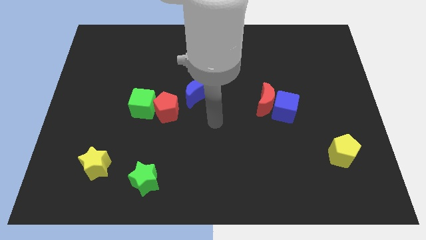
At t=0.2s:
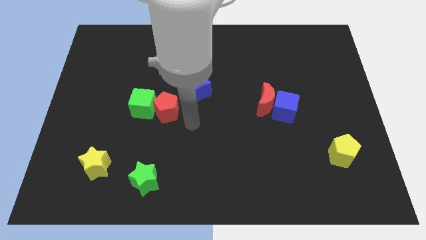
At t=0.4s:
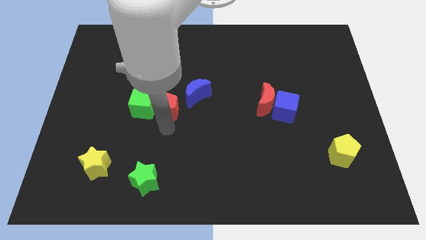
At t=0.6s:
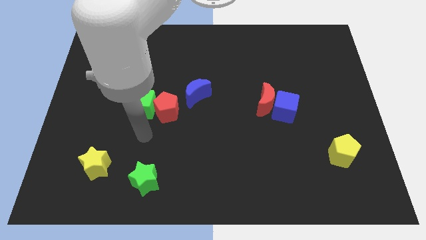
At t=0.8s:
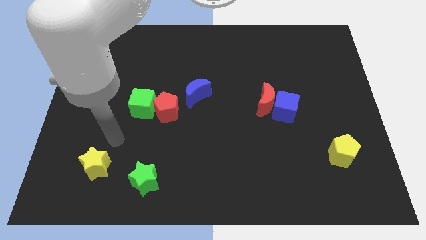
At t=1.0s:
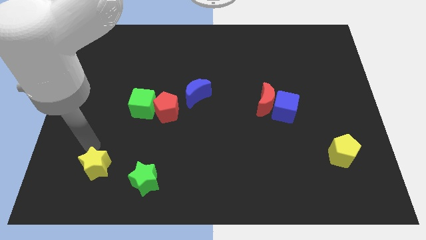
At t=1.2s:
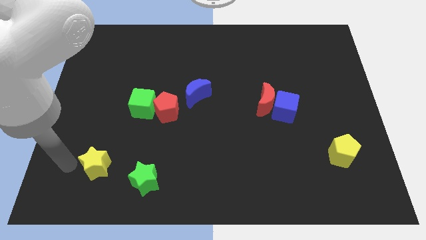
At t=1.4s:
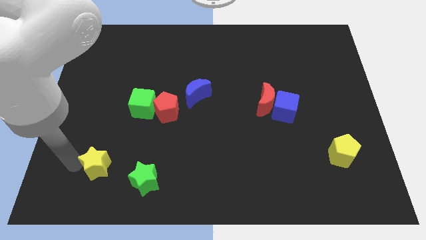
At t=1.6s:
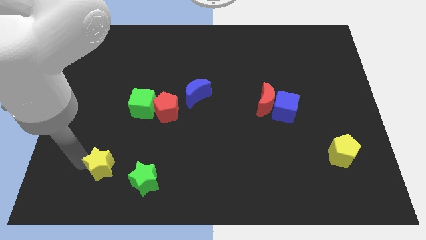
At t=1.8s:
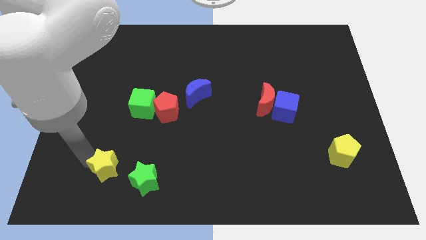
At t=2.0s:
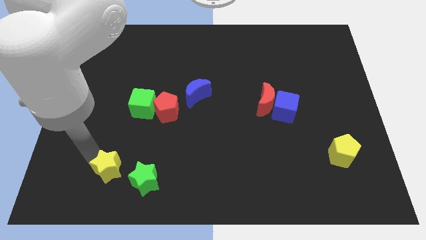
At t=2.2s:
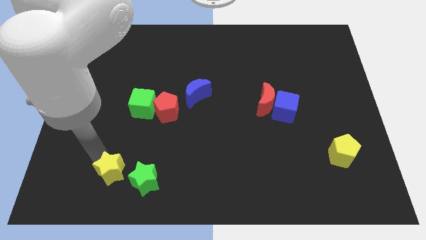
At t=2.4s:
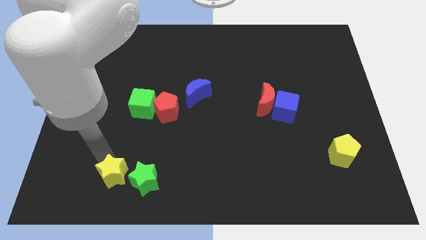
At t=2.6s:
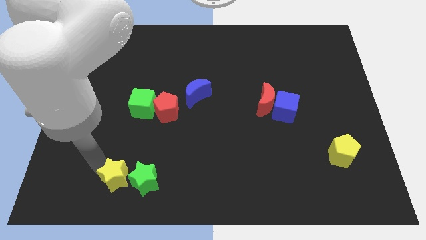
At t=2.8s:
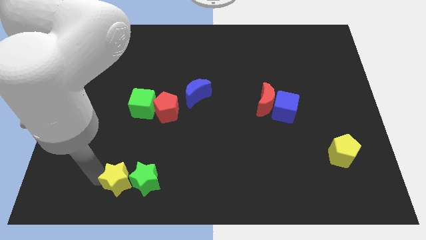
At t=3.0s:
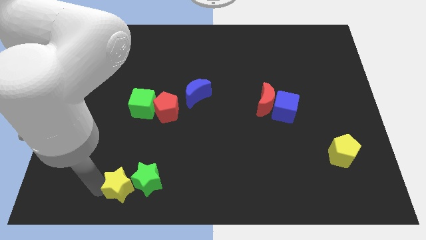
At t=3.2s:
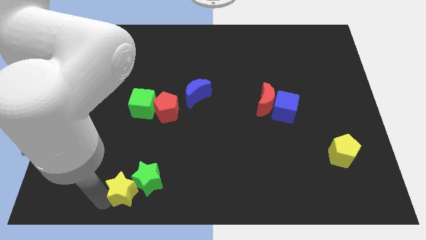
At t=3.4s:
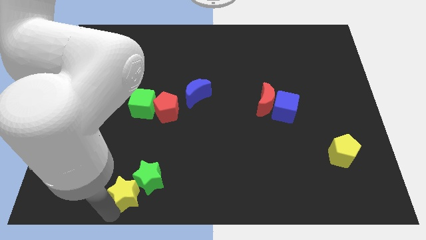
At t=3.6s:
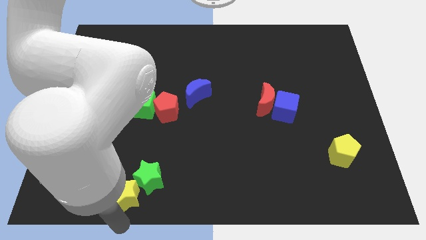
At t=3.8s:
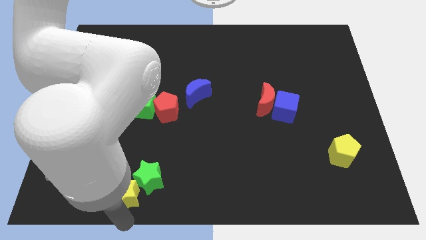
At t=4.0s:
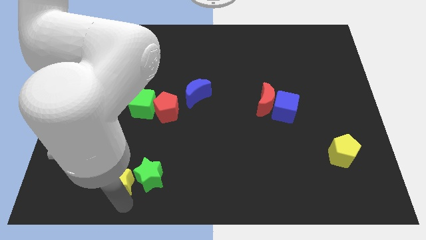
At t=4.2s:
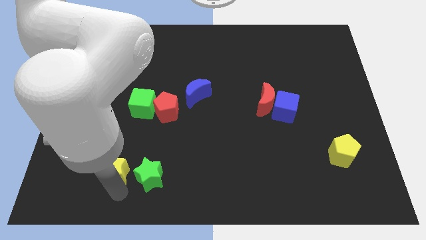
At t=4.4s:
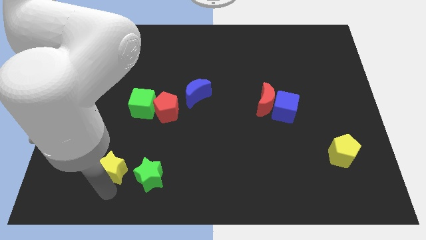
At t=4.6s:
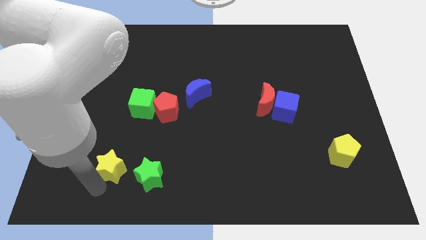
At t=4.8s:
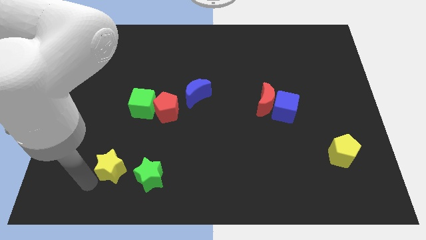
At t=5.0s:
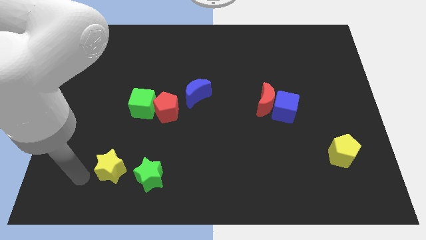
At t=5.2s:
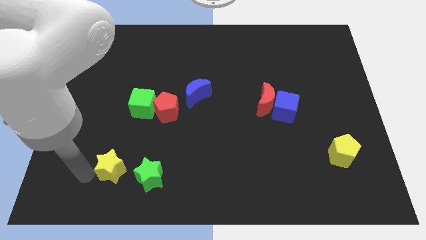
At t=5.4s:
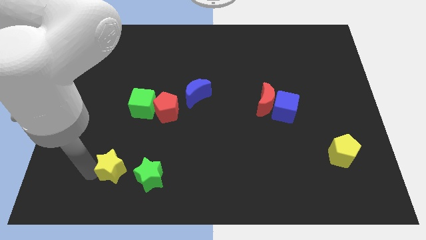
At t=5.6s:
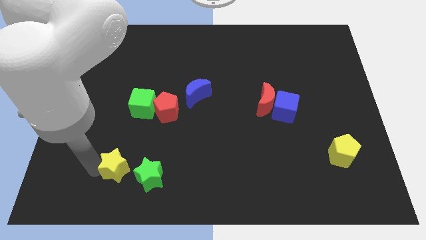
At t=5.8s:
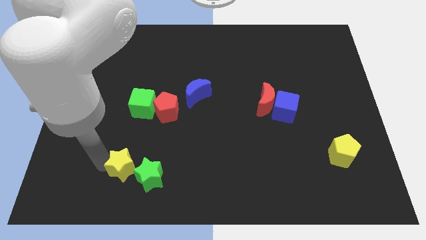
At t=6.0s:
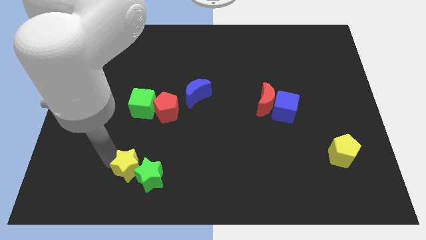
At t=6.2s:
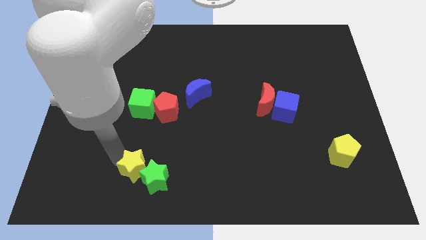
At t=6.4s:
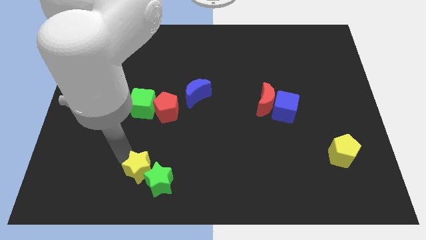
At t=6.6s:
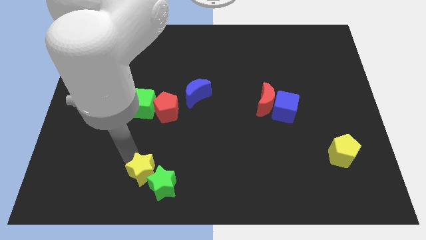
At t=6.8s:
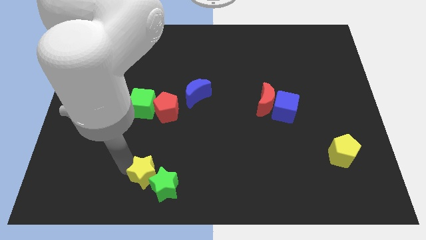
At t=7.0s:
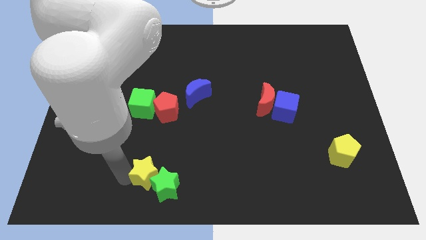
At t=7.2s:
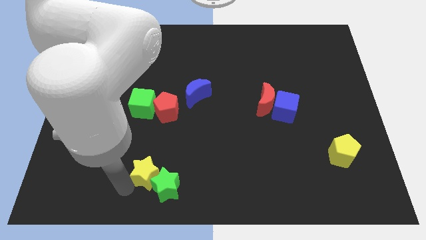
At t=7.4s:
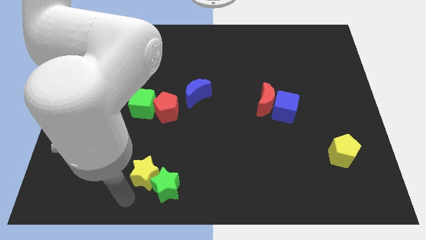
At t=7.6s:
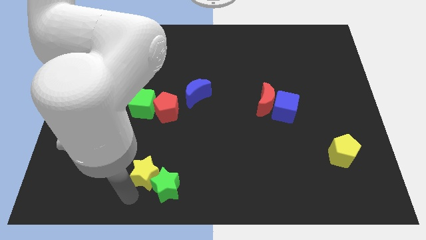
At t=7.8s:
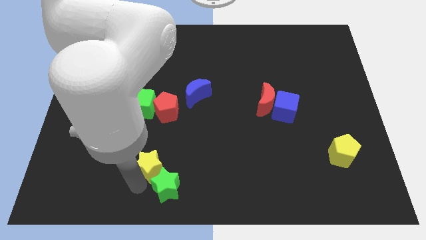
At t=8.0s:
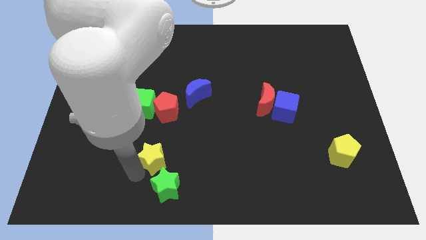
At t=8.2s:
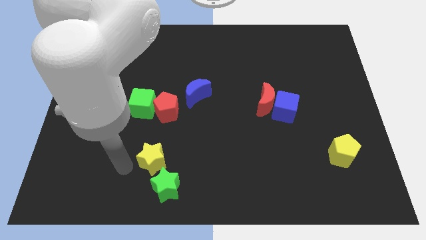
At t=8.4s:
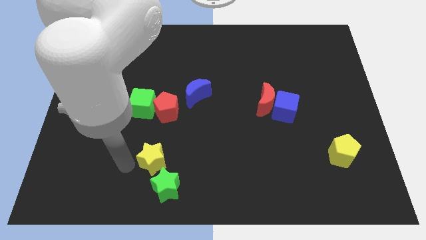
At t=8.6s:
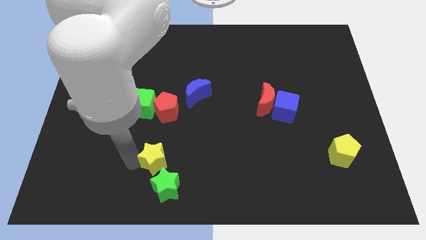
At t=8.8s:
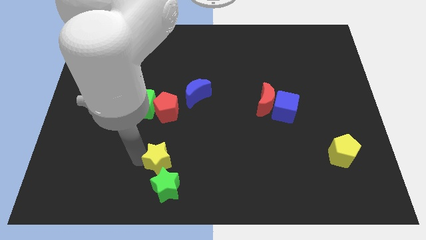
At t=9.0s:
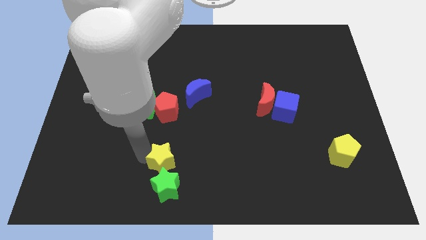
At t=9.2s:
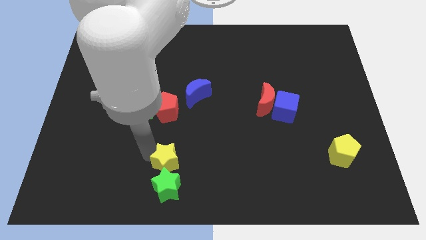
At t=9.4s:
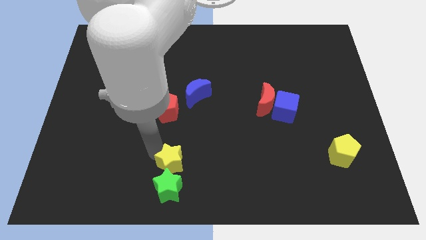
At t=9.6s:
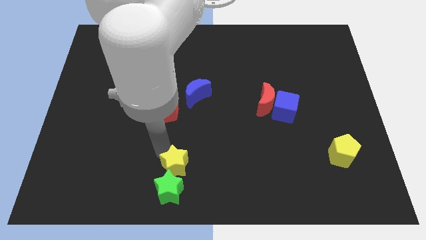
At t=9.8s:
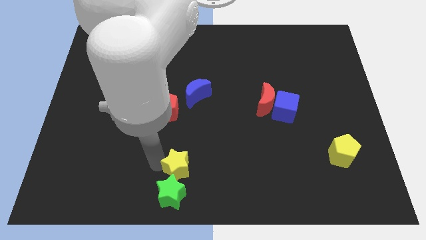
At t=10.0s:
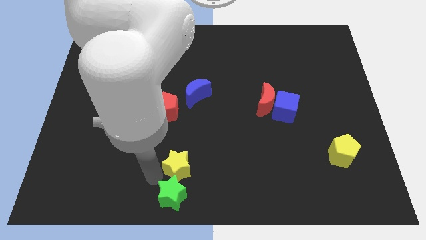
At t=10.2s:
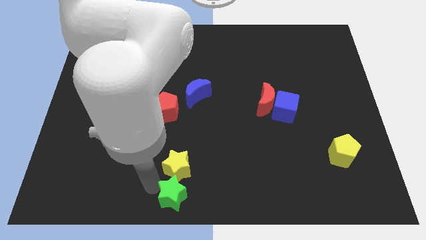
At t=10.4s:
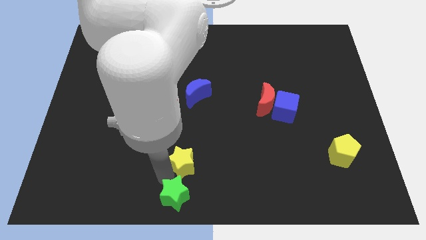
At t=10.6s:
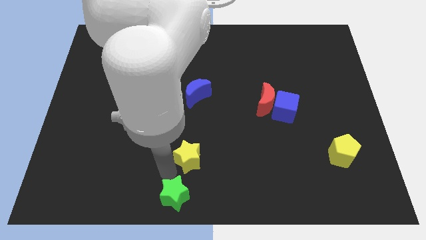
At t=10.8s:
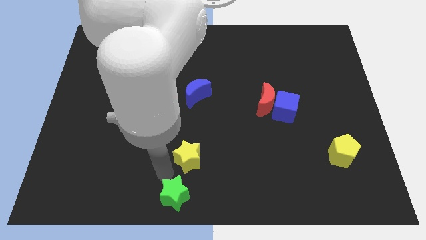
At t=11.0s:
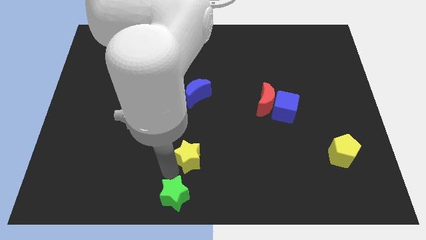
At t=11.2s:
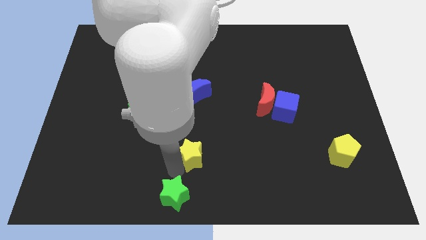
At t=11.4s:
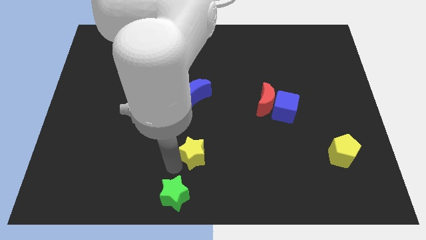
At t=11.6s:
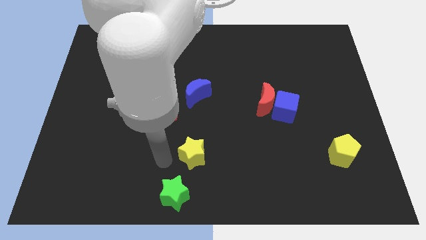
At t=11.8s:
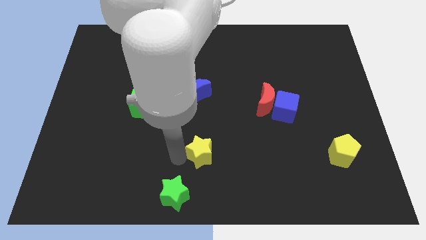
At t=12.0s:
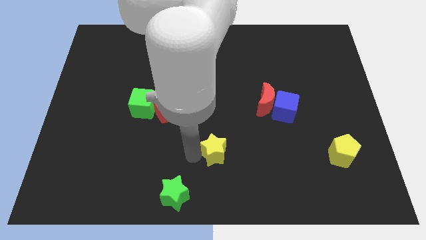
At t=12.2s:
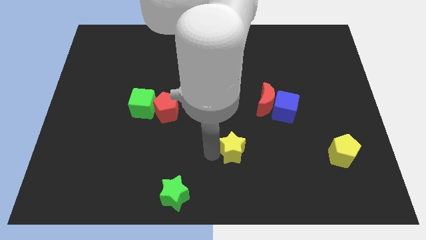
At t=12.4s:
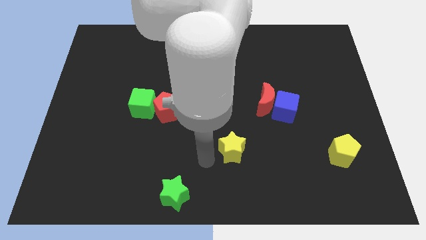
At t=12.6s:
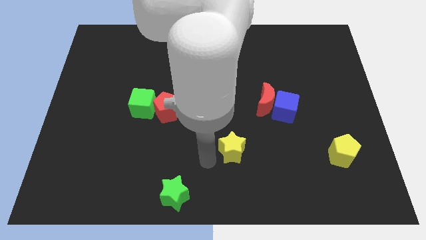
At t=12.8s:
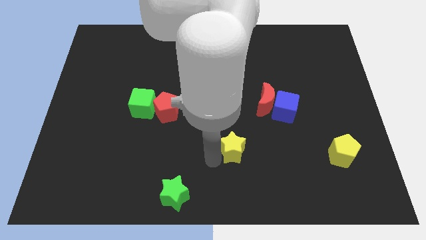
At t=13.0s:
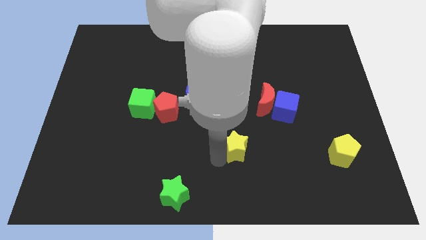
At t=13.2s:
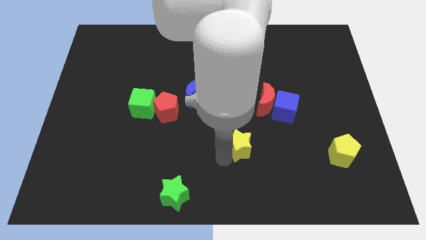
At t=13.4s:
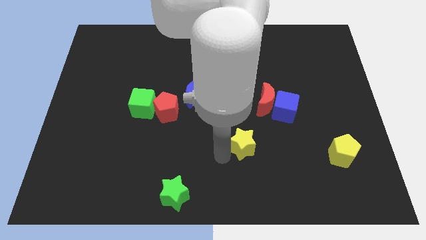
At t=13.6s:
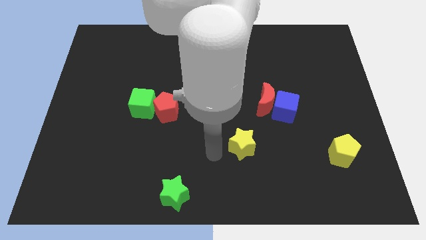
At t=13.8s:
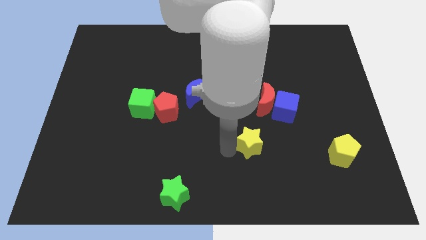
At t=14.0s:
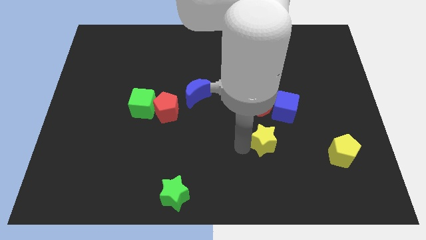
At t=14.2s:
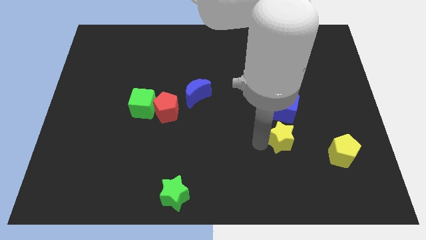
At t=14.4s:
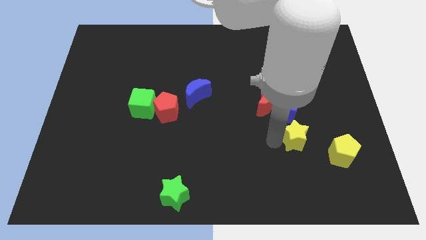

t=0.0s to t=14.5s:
move the yellow star to the top left side of the yellow pentagon
